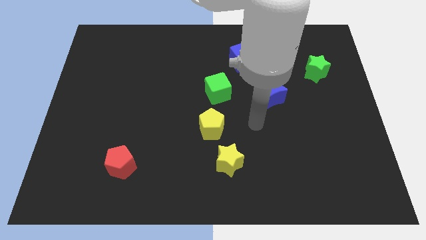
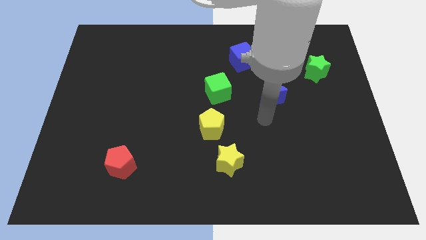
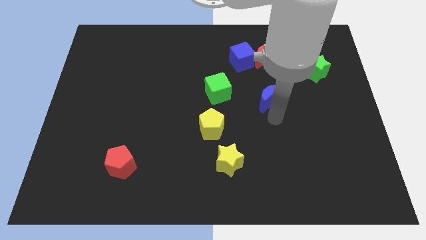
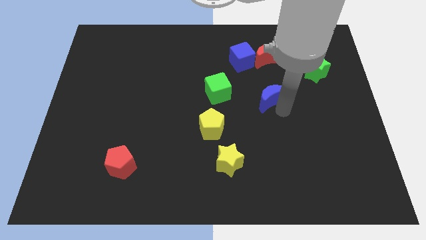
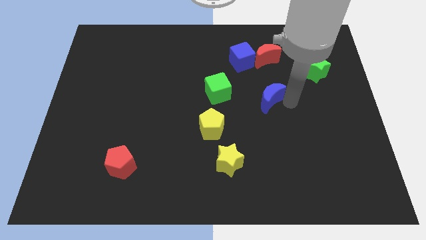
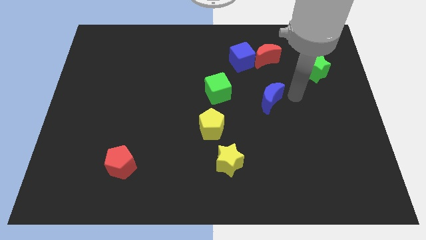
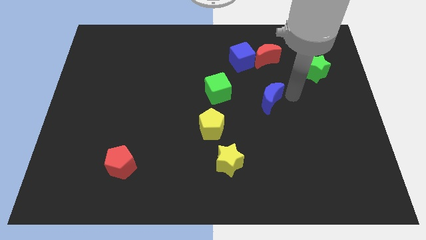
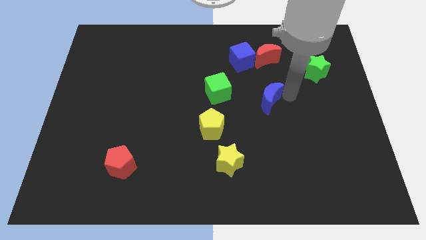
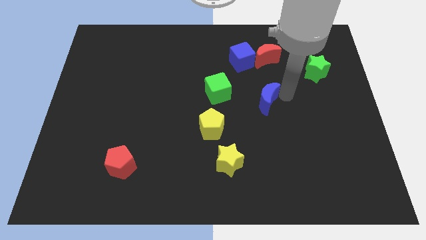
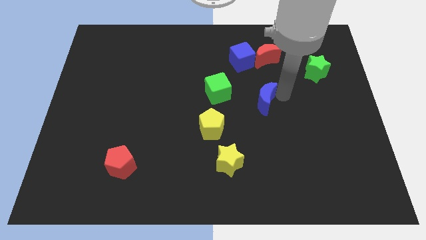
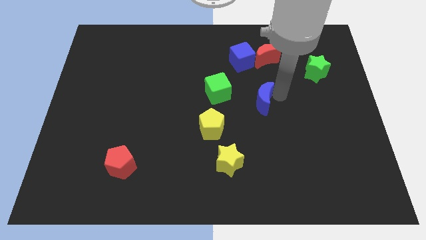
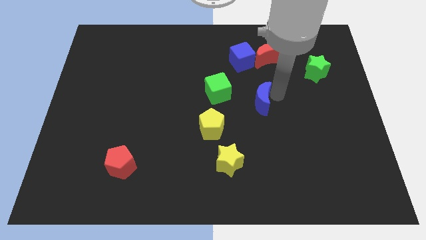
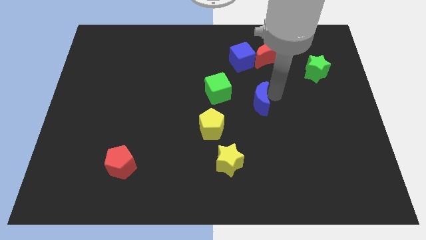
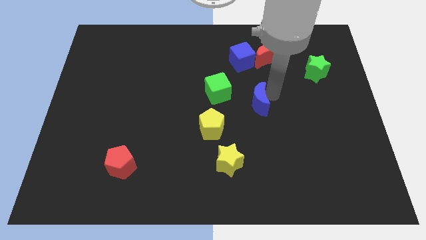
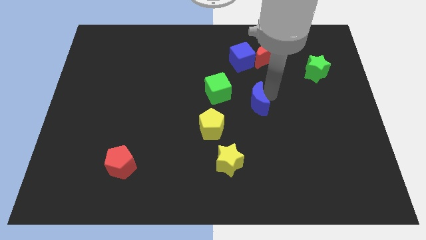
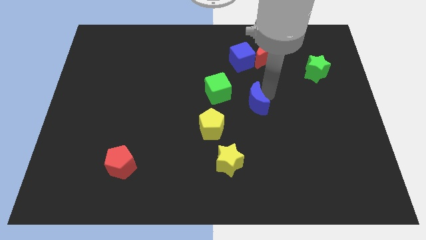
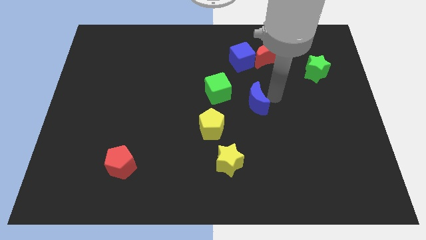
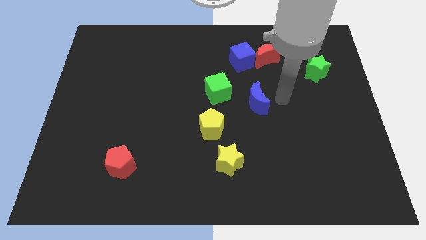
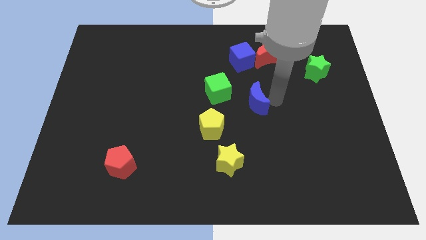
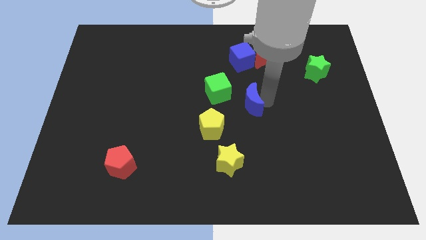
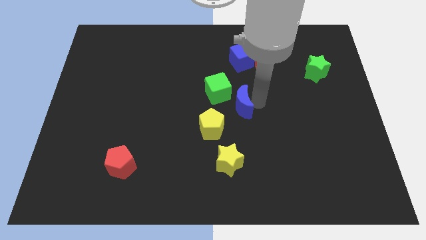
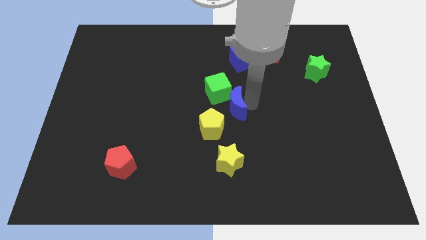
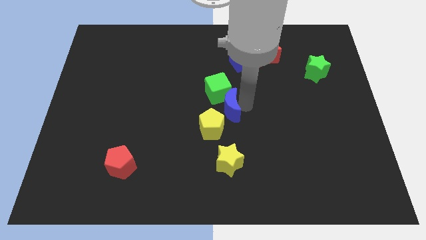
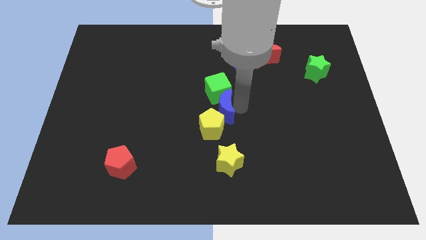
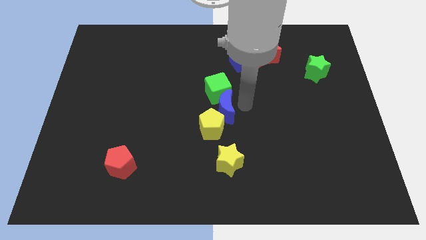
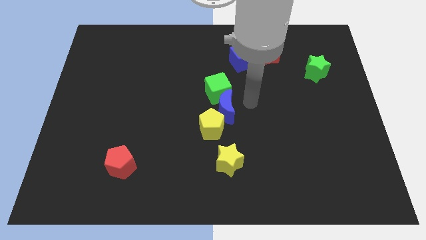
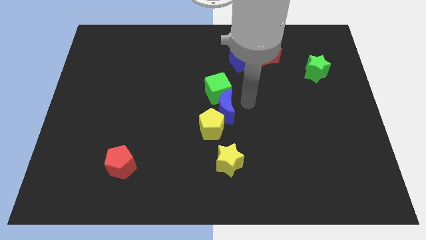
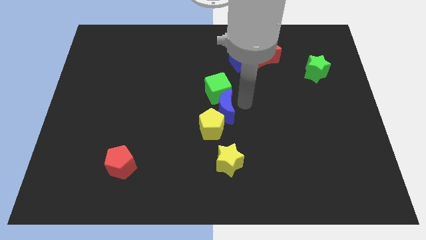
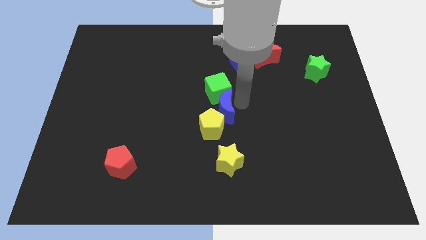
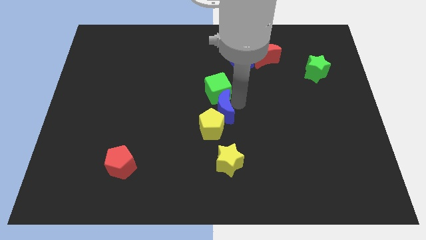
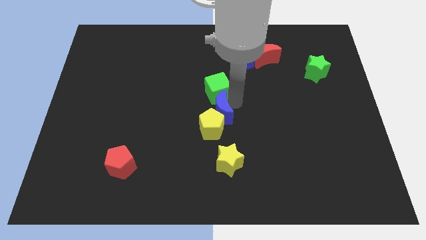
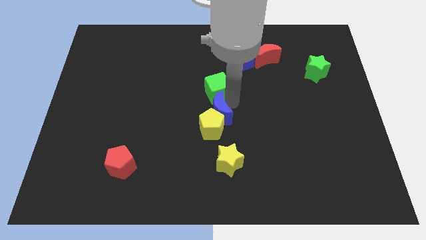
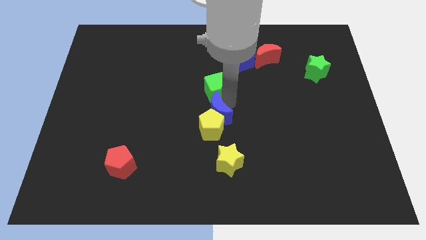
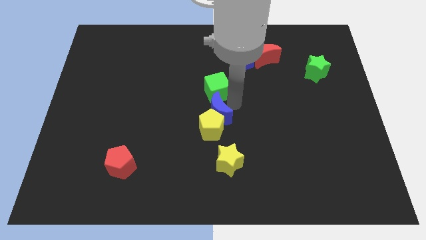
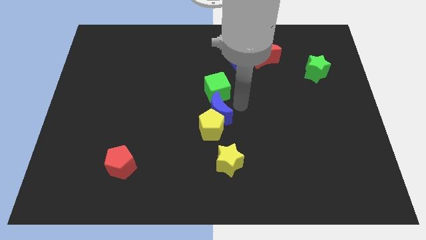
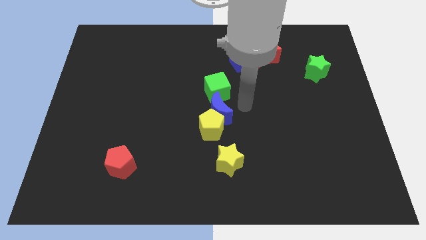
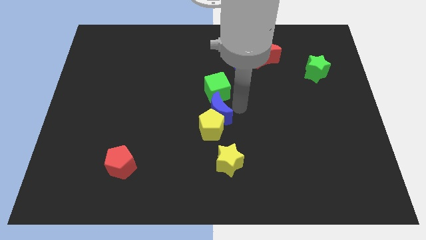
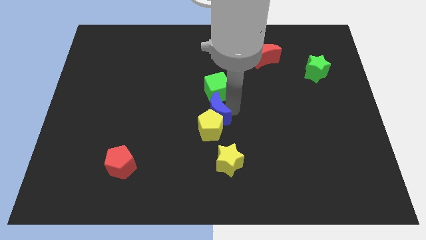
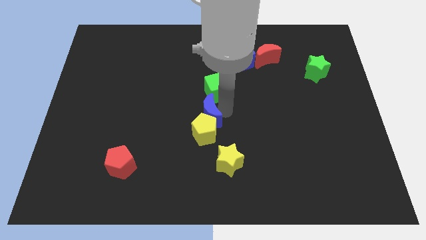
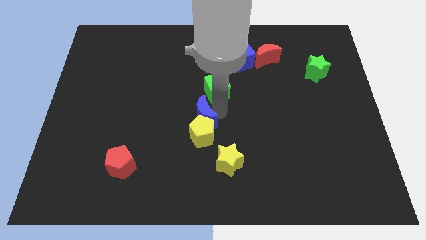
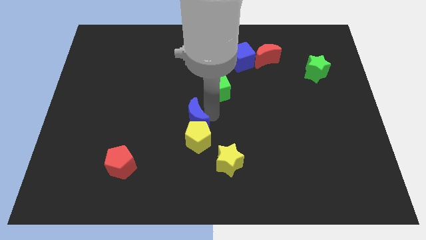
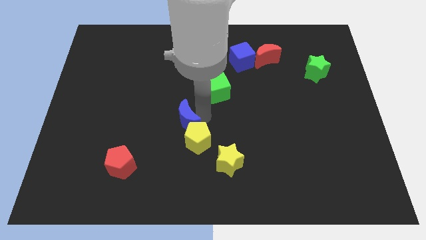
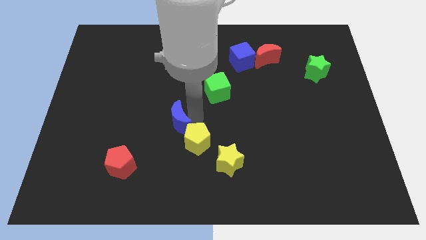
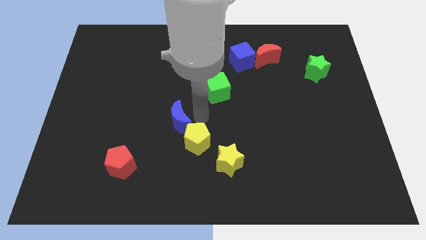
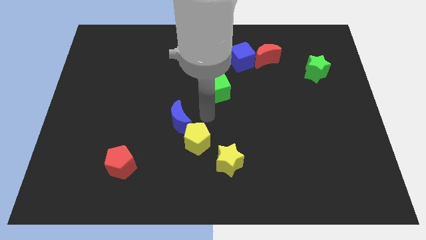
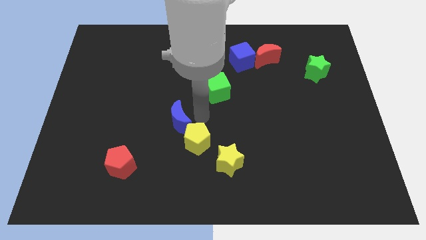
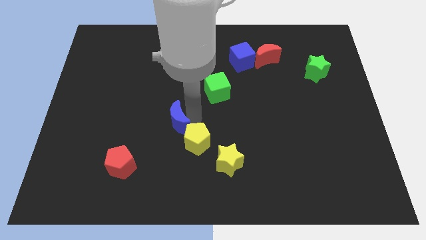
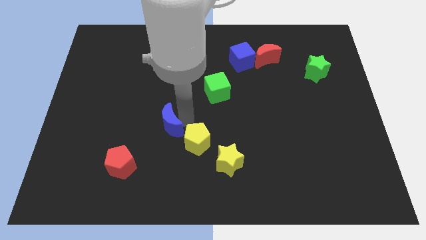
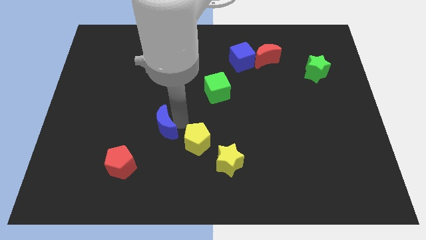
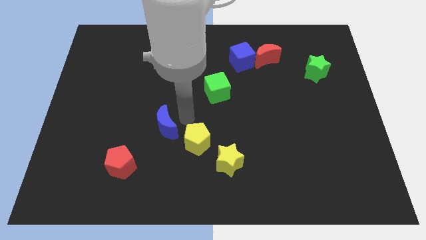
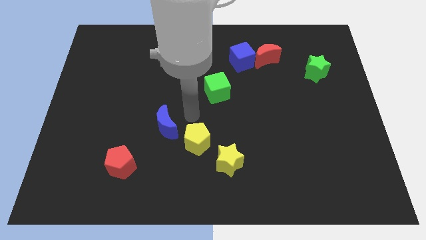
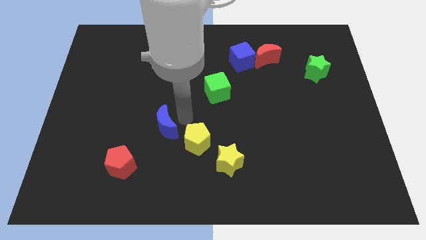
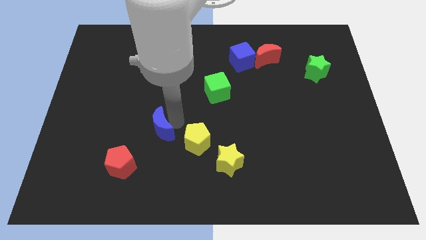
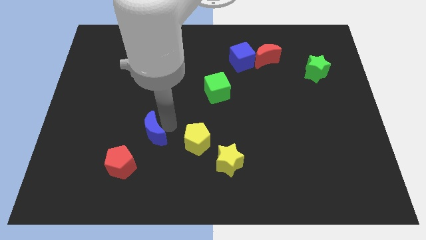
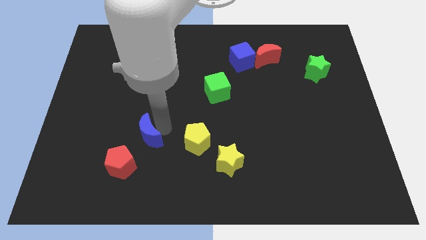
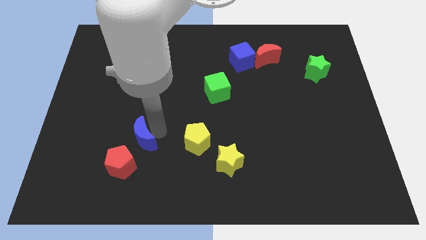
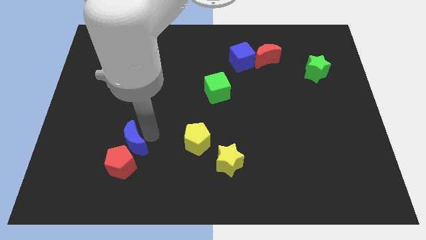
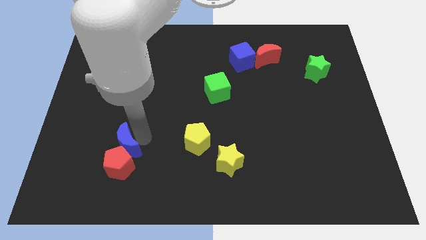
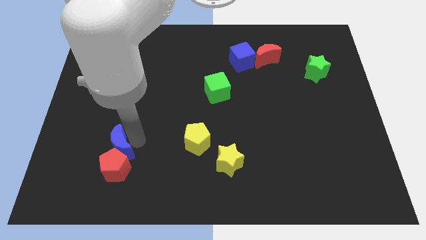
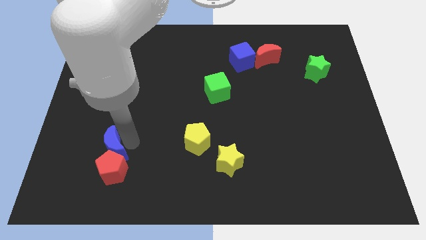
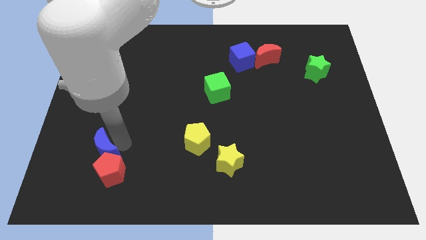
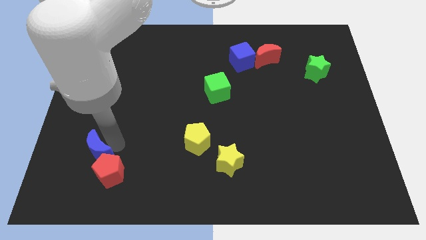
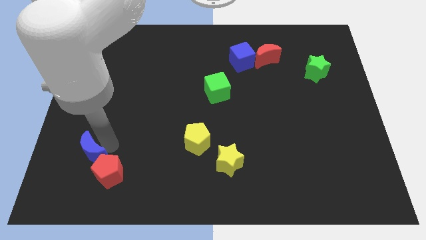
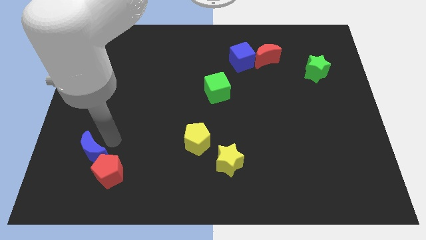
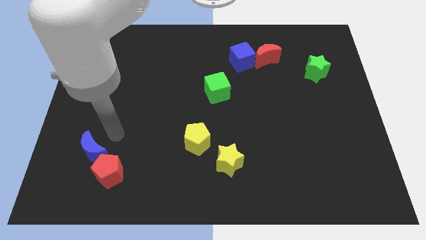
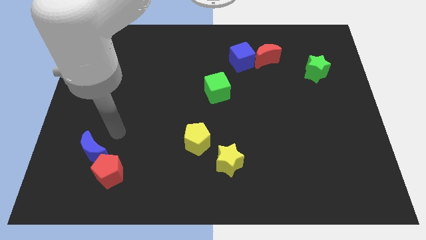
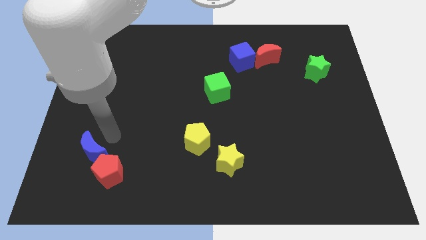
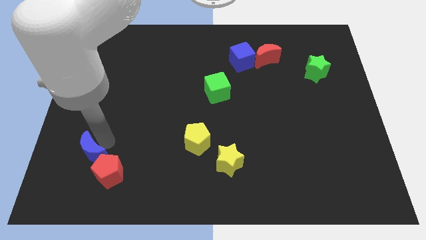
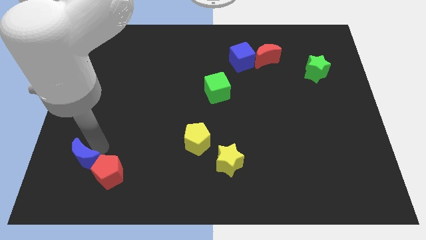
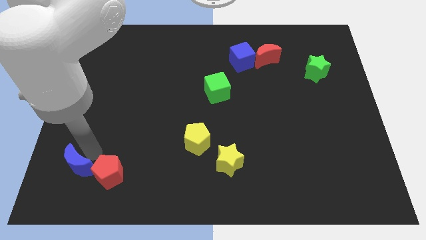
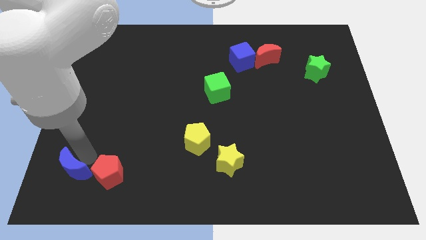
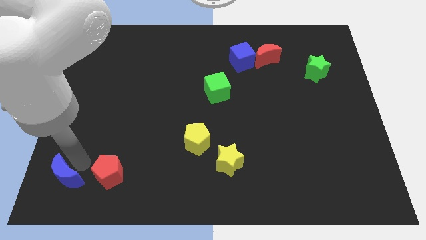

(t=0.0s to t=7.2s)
push the blue moon to the bottom left of the board
